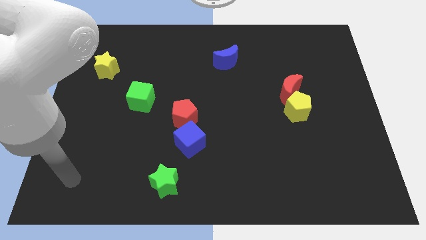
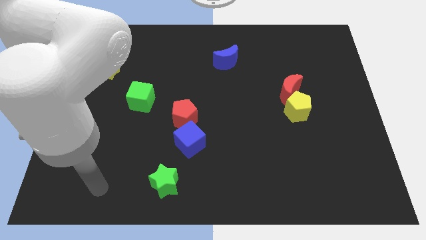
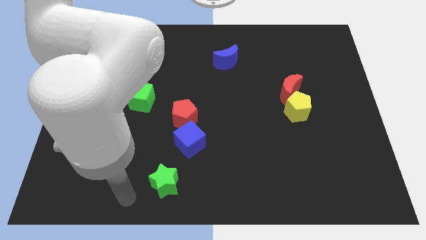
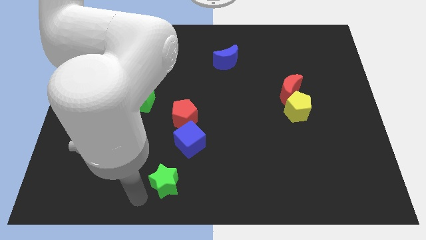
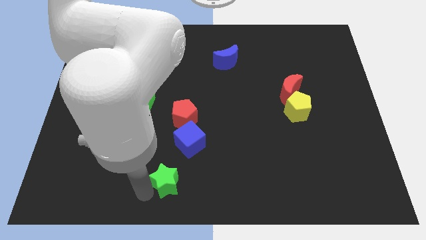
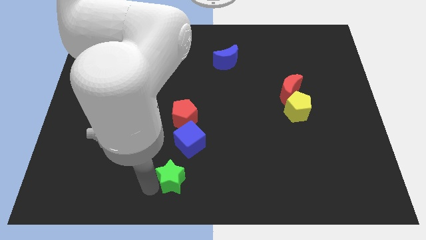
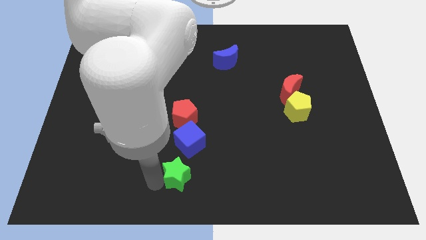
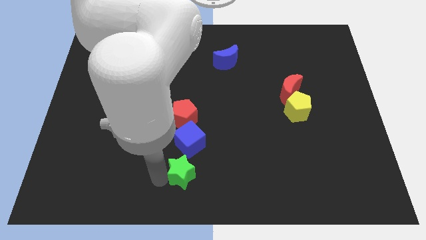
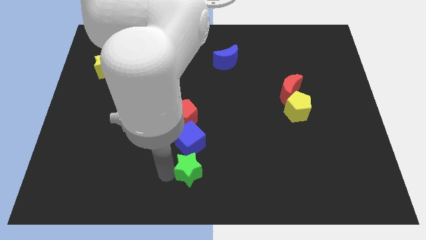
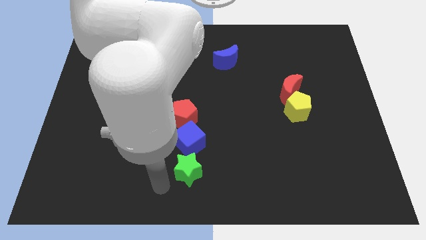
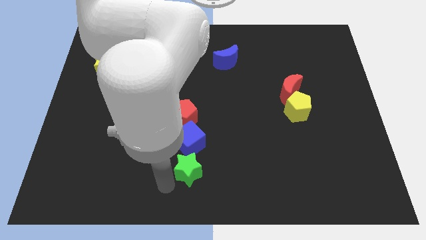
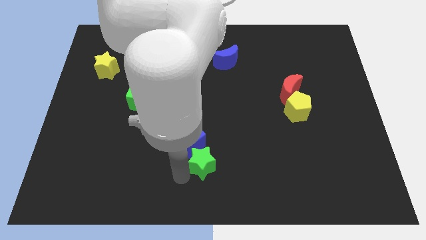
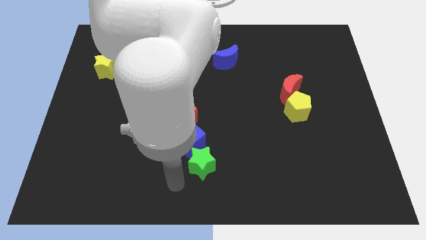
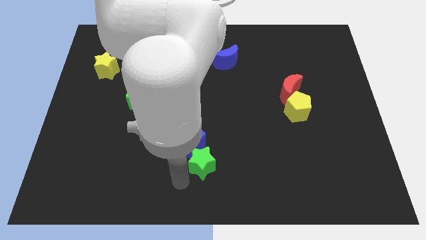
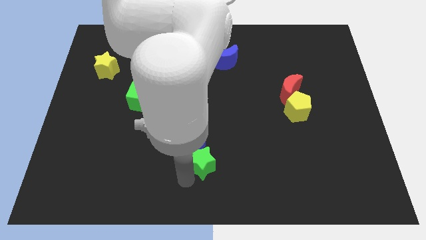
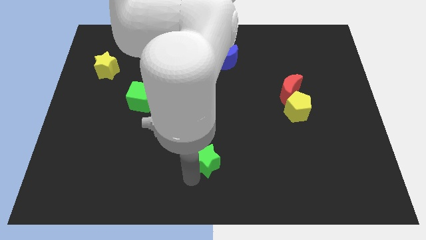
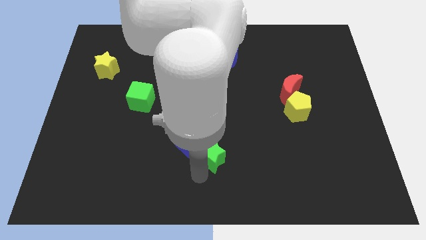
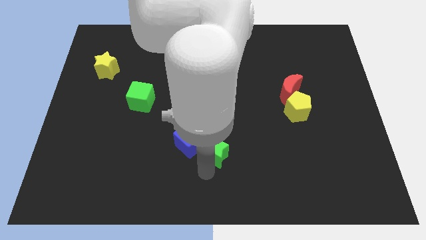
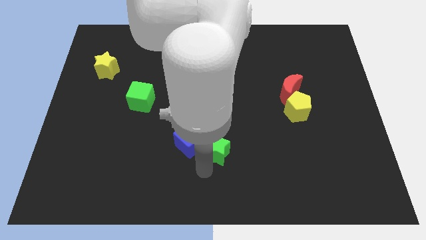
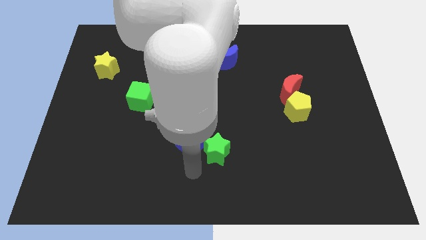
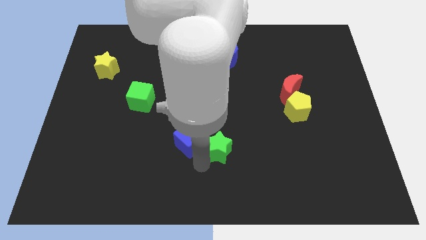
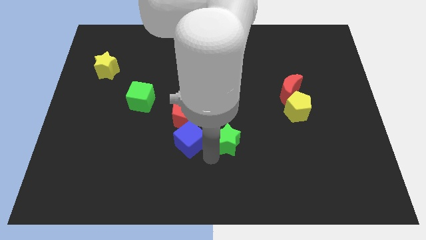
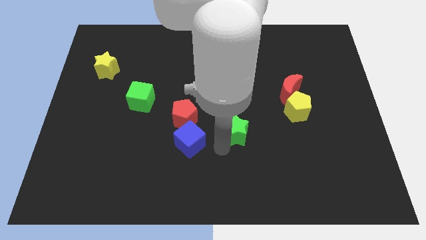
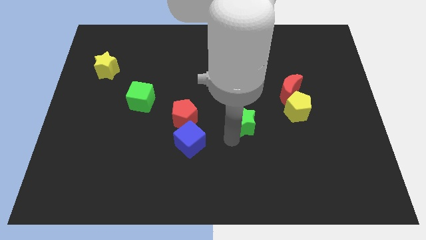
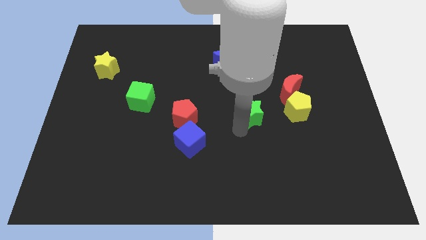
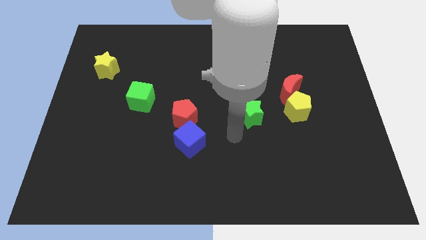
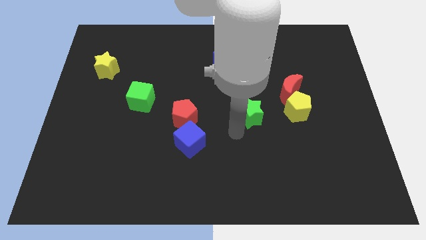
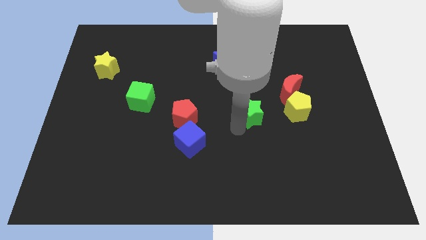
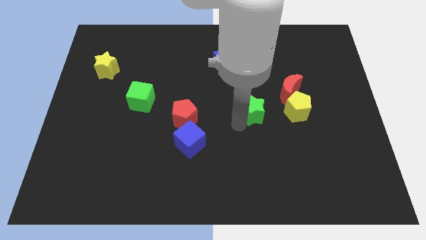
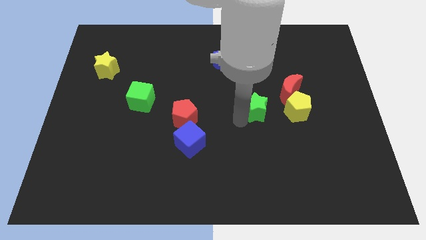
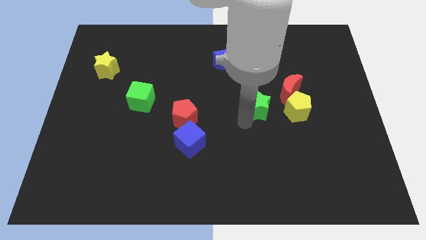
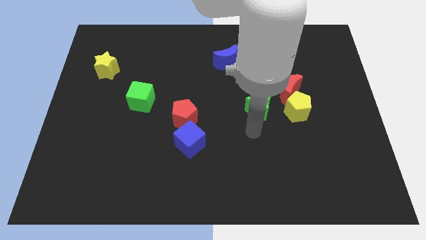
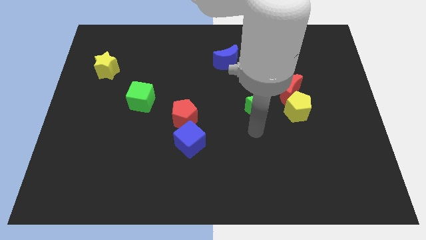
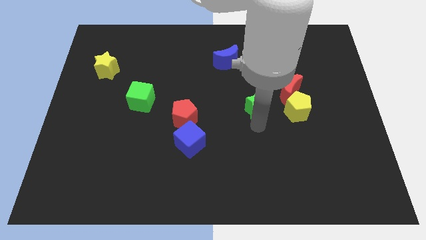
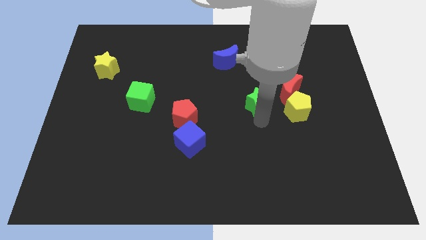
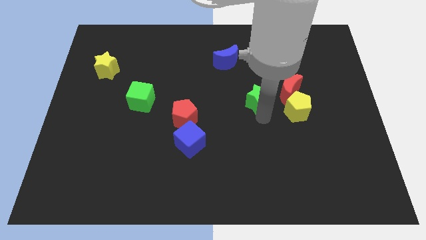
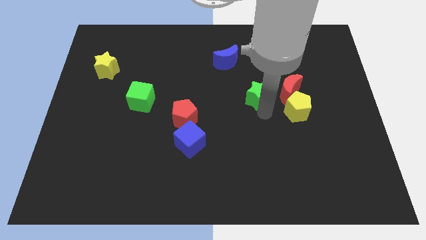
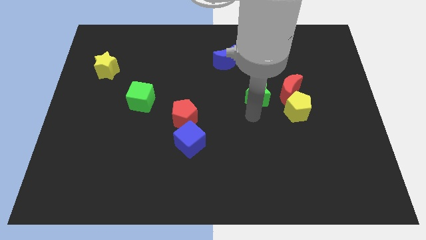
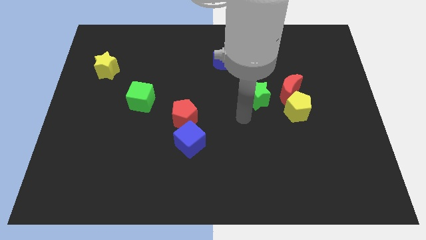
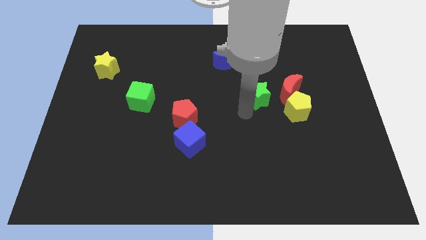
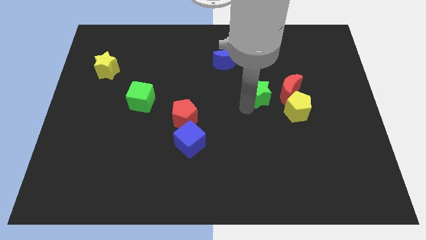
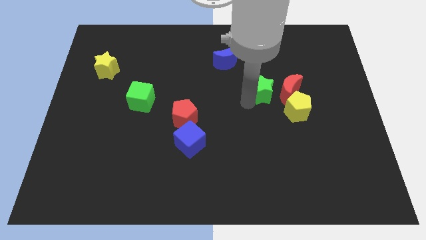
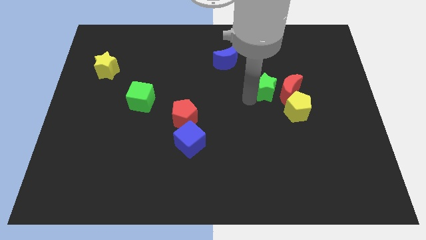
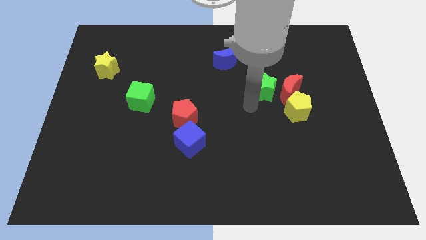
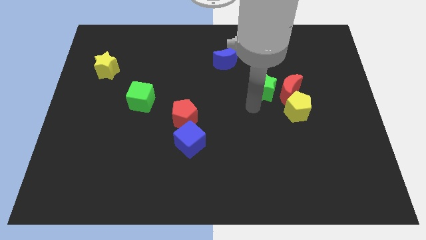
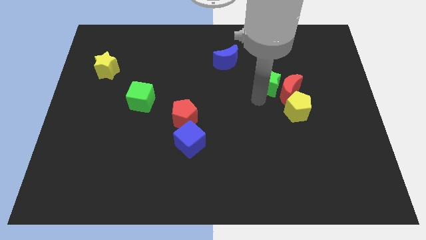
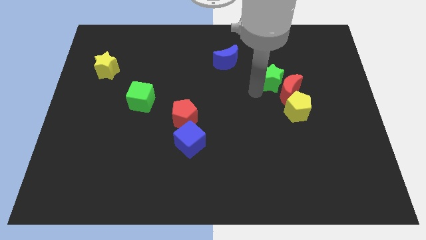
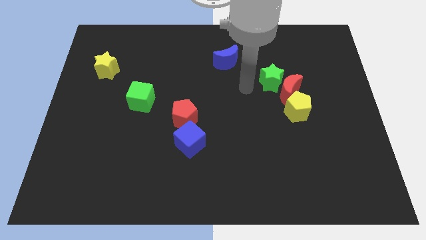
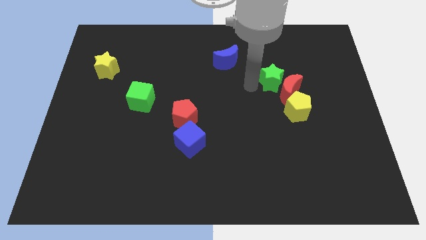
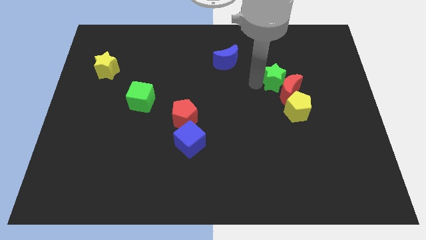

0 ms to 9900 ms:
push the green star to the top of the yellow pentagon

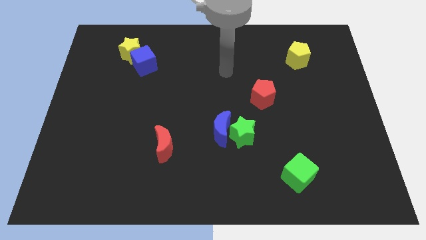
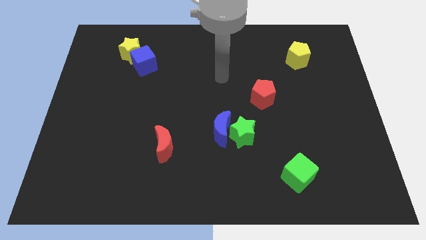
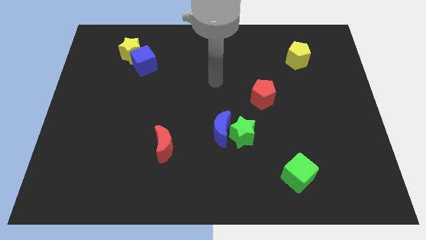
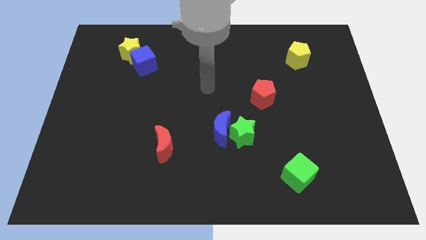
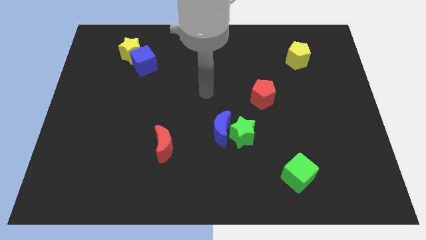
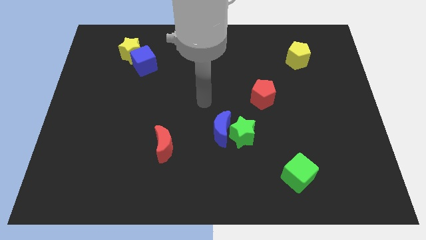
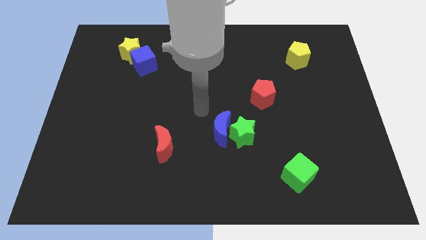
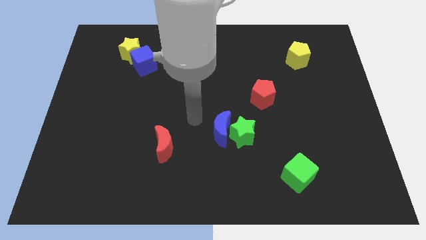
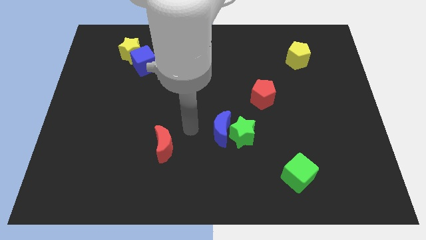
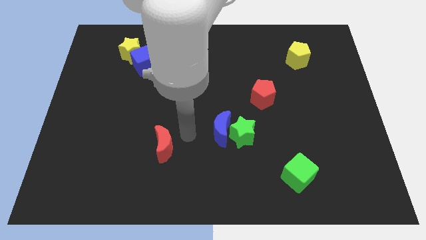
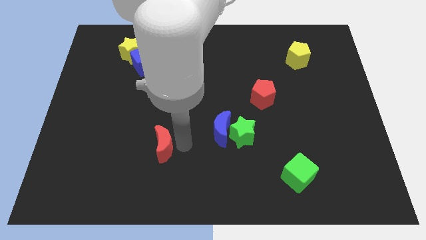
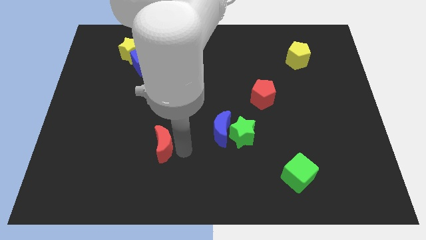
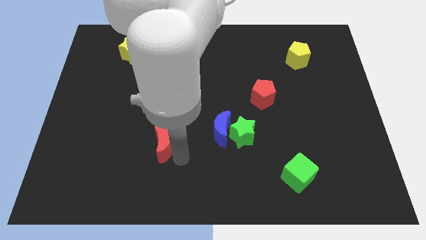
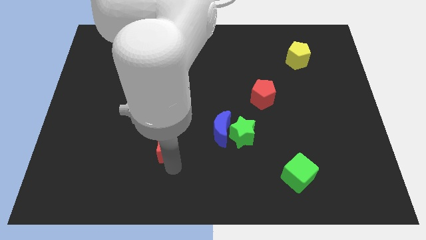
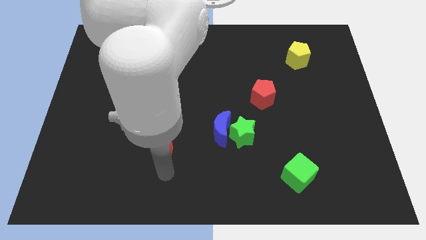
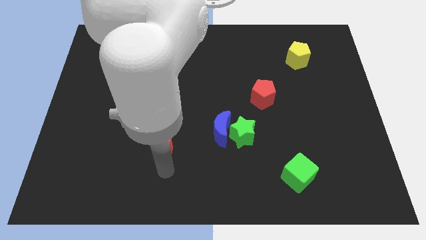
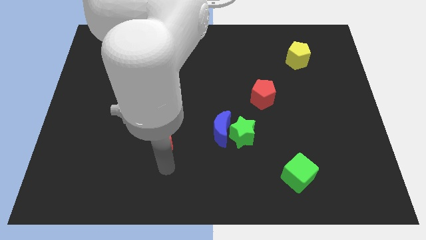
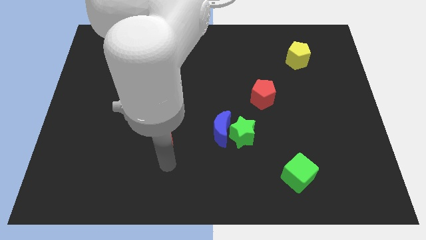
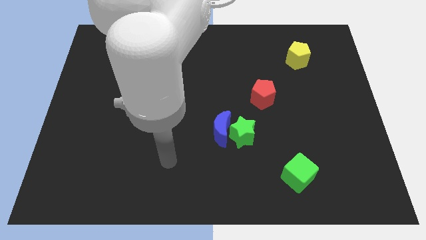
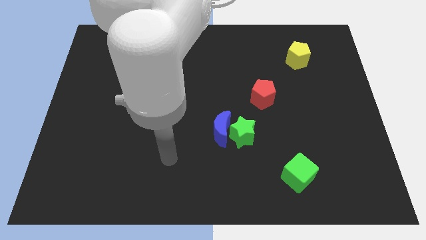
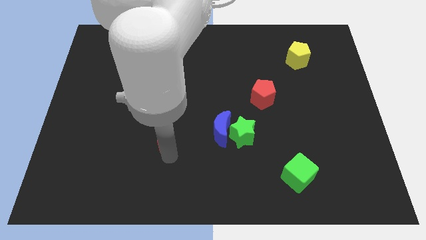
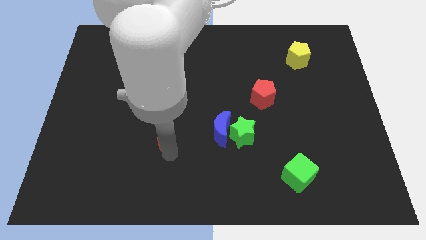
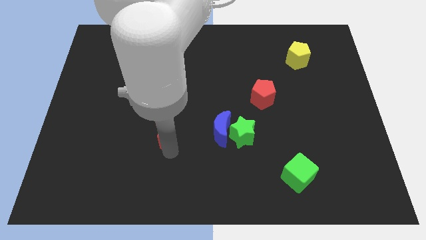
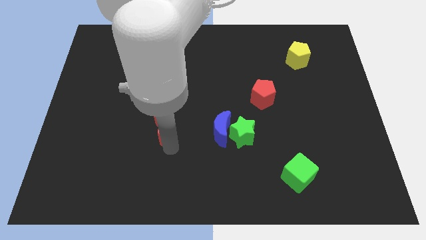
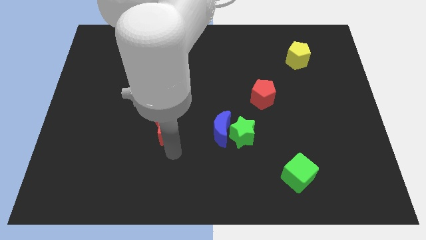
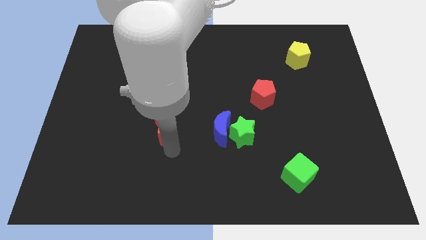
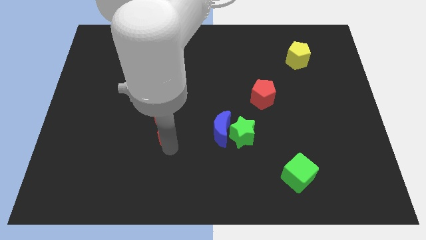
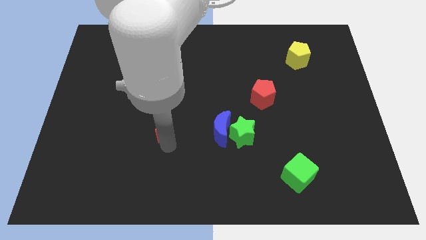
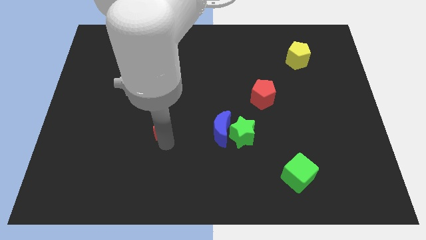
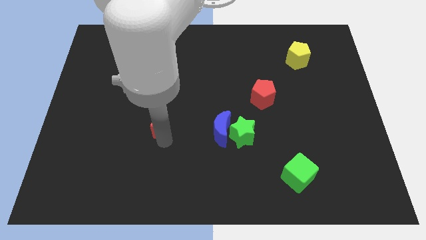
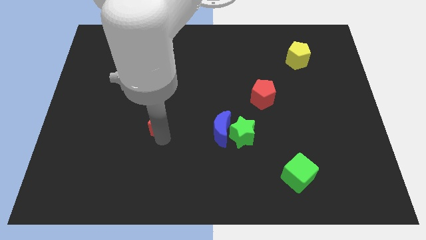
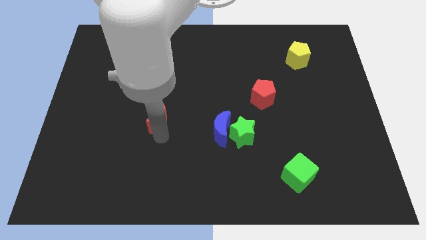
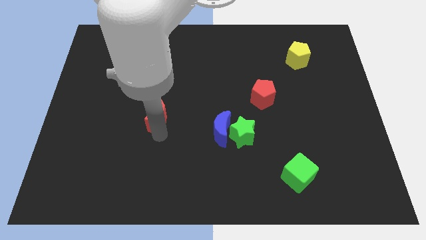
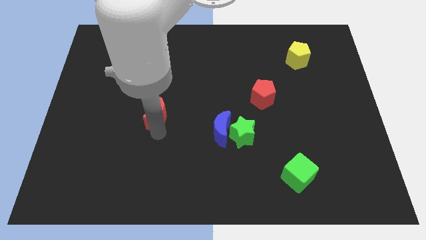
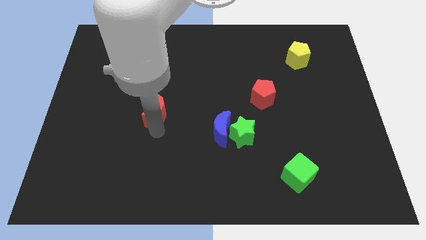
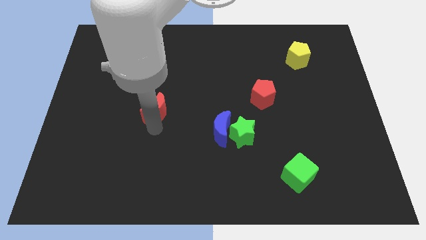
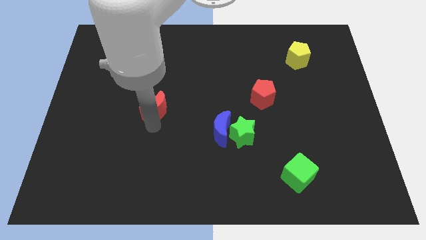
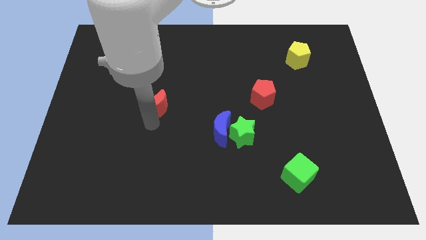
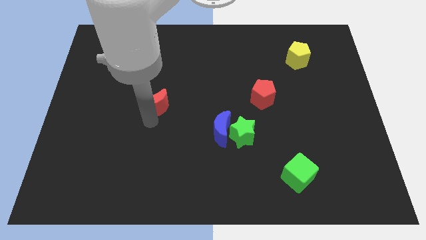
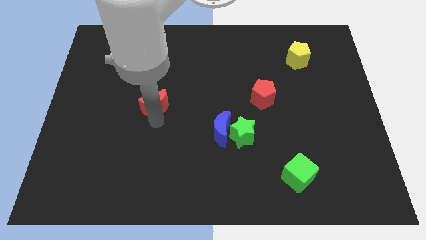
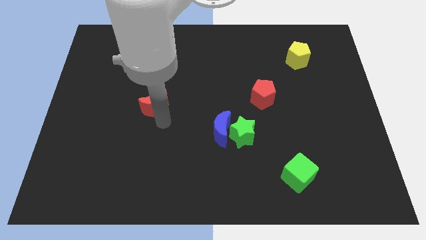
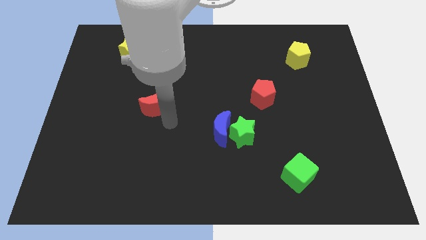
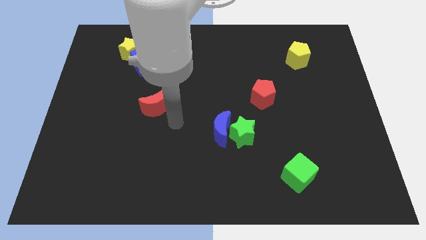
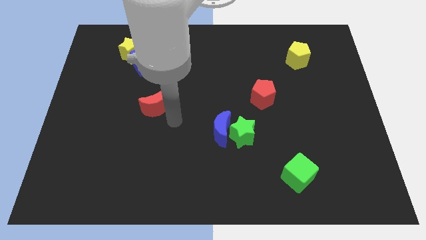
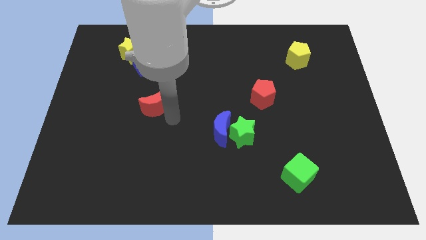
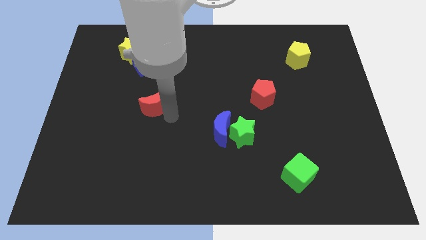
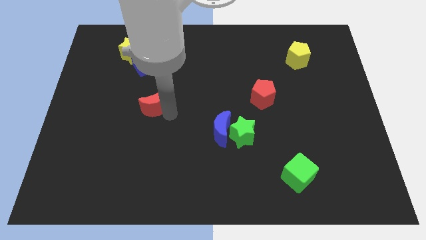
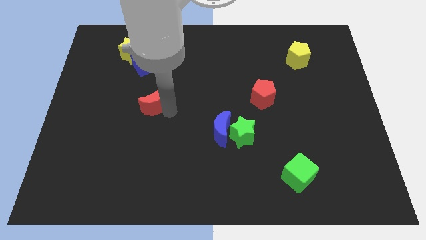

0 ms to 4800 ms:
put the red moon below the blue cube
